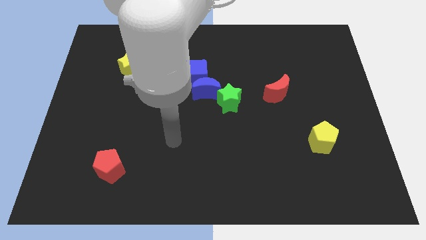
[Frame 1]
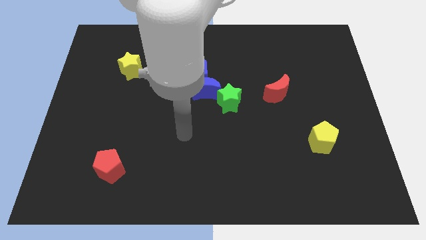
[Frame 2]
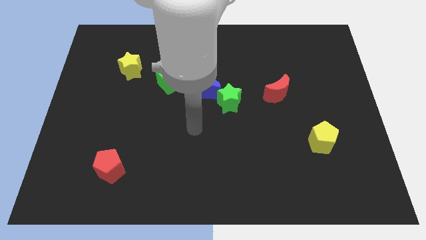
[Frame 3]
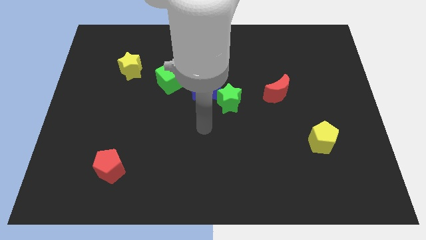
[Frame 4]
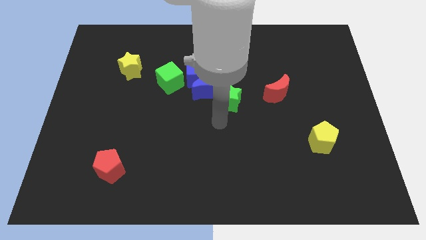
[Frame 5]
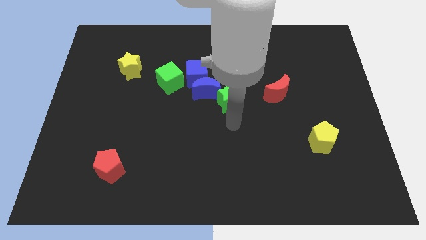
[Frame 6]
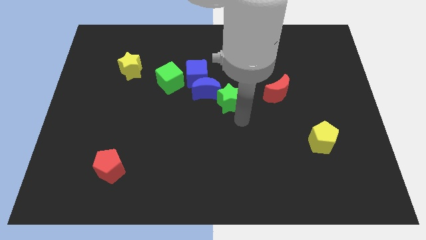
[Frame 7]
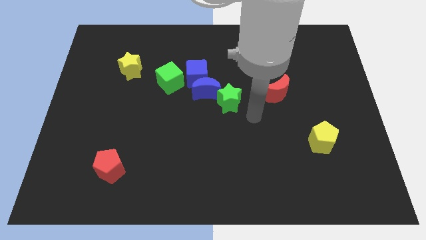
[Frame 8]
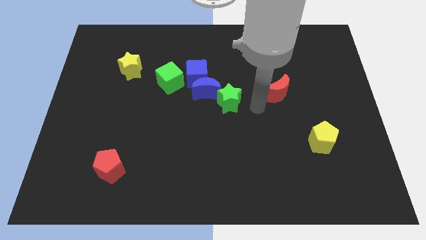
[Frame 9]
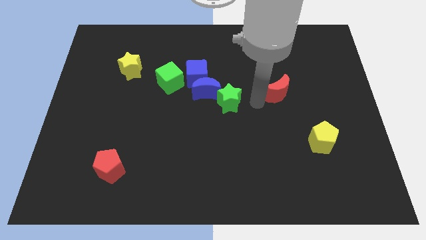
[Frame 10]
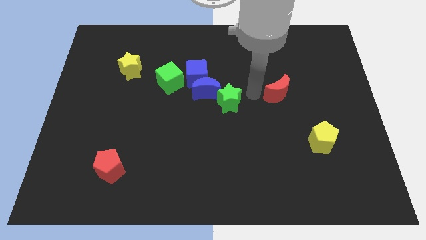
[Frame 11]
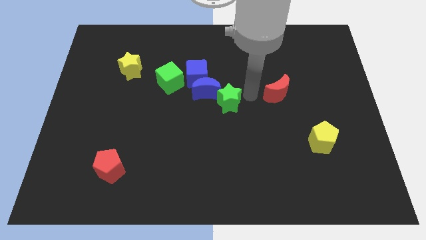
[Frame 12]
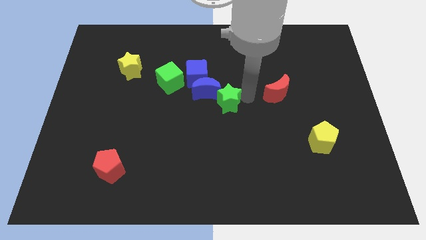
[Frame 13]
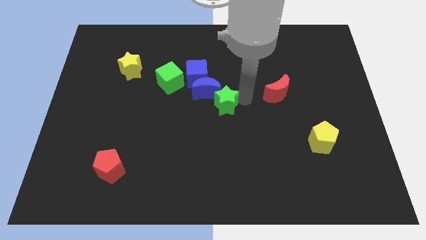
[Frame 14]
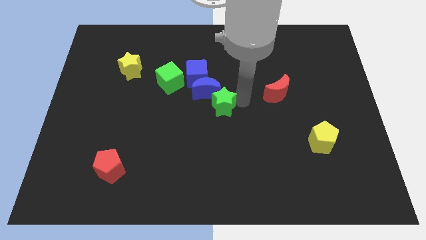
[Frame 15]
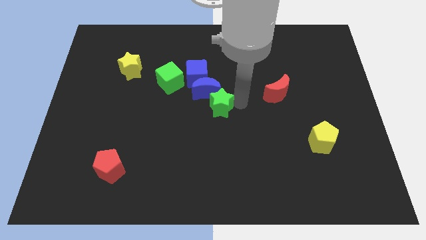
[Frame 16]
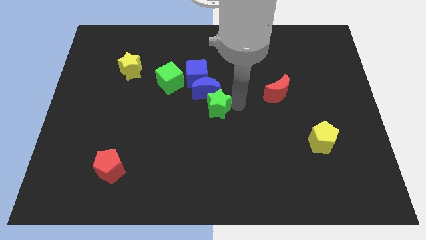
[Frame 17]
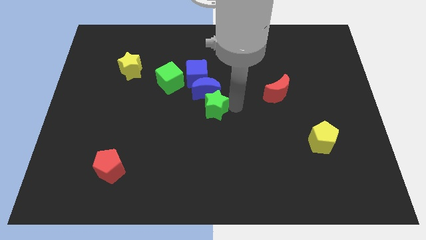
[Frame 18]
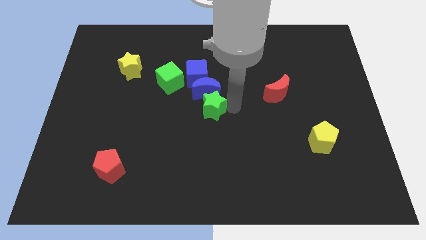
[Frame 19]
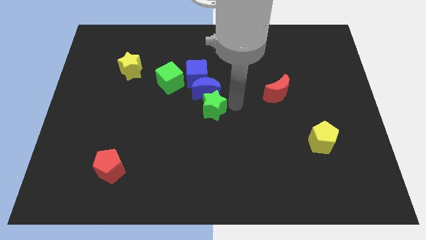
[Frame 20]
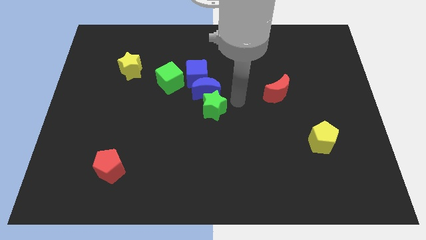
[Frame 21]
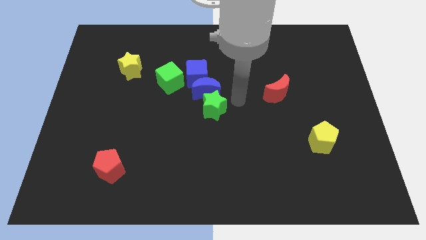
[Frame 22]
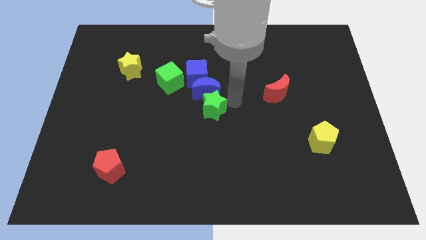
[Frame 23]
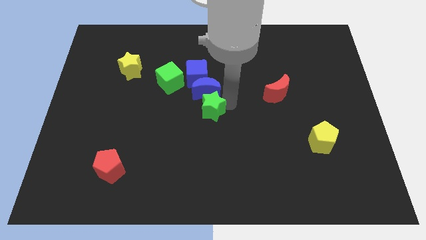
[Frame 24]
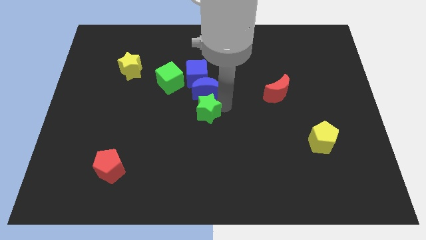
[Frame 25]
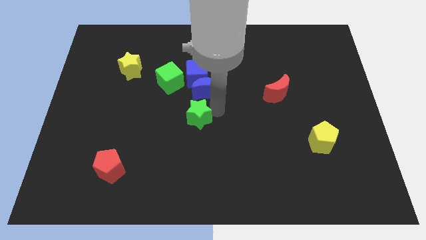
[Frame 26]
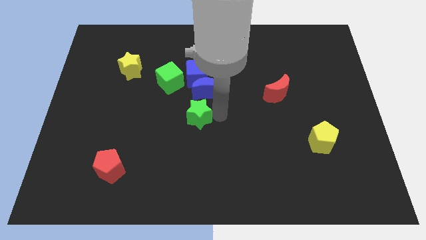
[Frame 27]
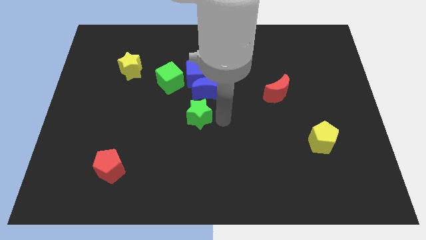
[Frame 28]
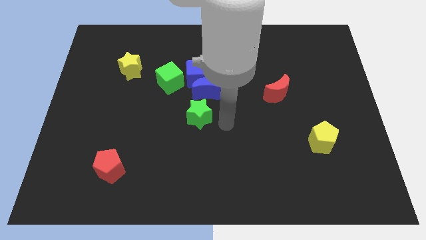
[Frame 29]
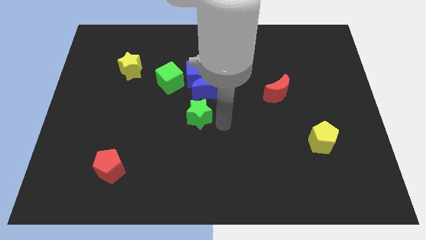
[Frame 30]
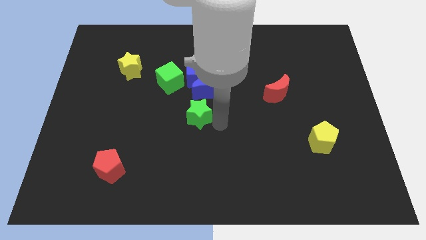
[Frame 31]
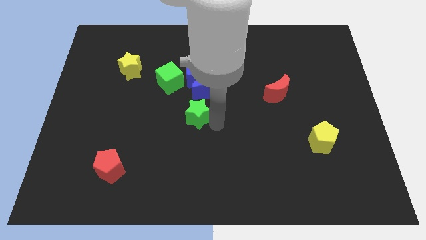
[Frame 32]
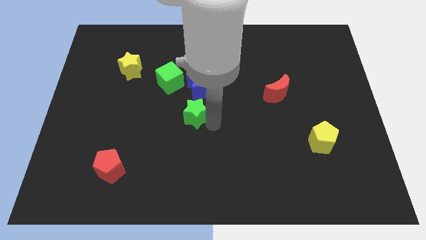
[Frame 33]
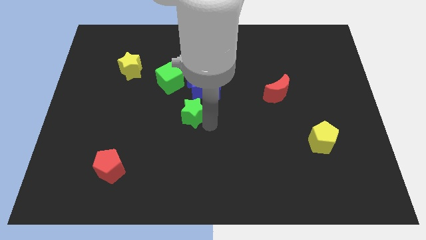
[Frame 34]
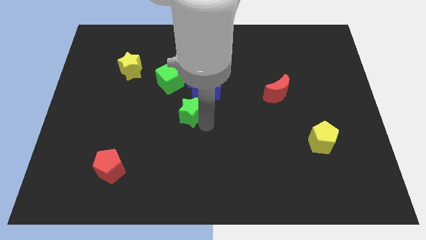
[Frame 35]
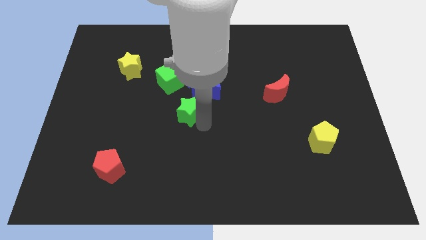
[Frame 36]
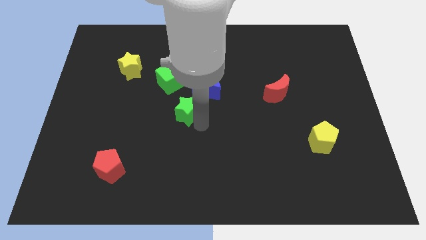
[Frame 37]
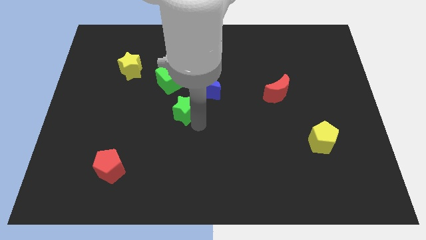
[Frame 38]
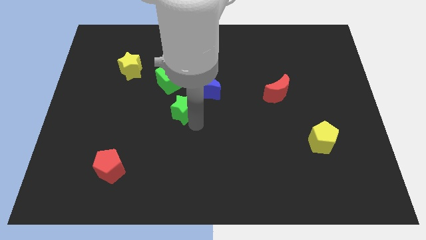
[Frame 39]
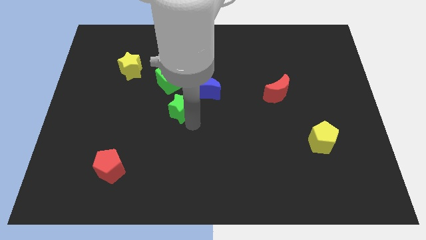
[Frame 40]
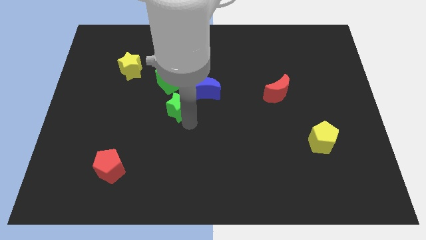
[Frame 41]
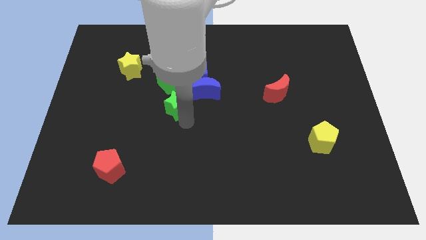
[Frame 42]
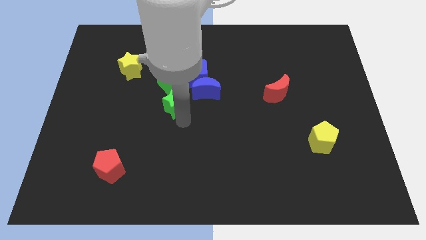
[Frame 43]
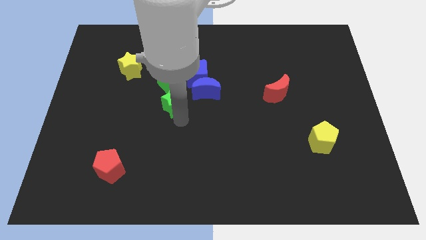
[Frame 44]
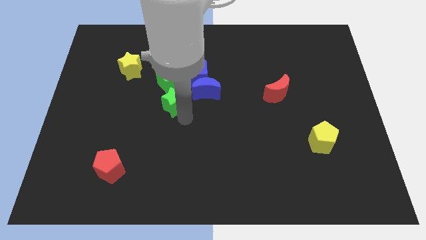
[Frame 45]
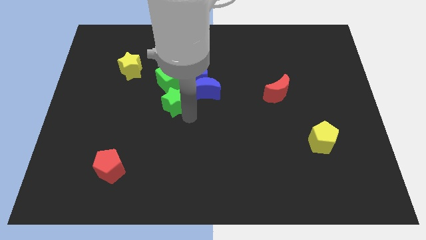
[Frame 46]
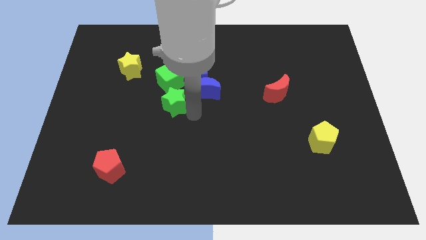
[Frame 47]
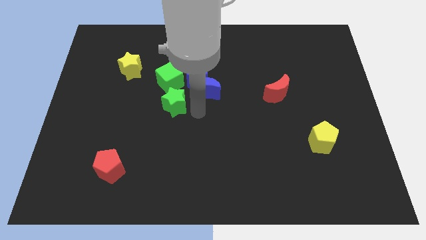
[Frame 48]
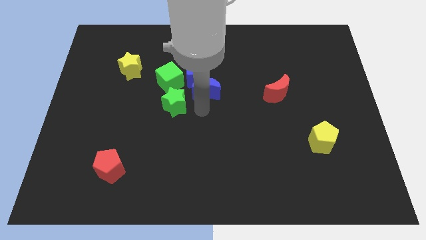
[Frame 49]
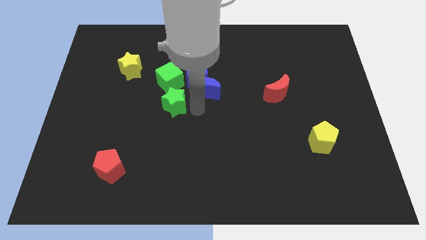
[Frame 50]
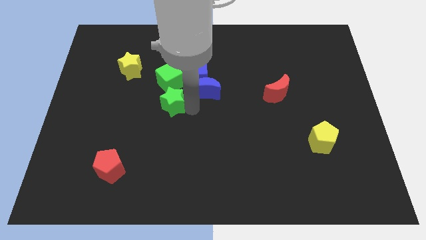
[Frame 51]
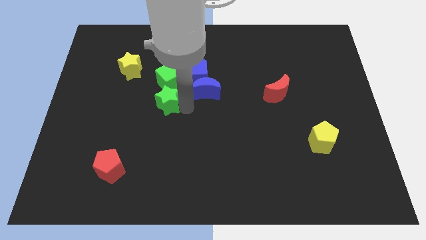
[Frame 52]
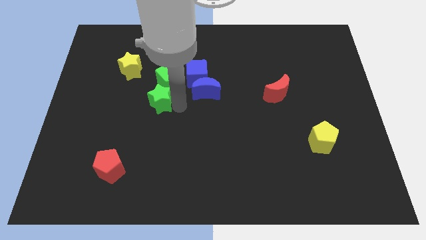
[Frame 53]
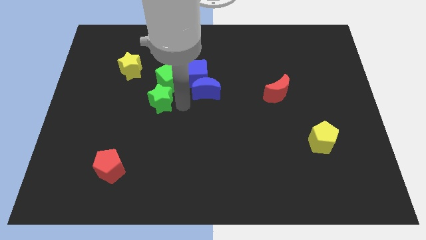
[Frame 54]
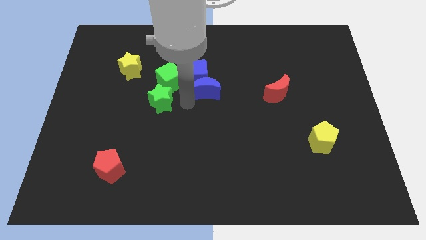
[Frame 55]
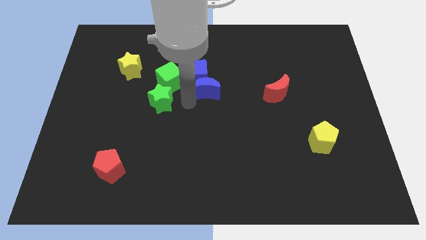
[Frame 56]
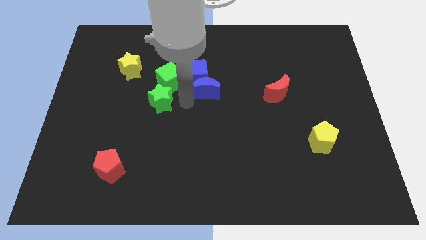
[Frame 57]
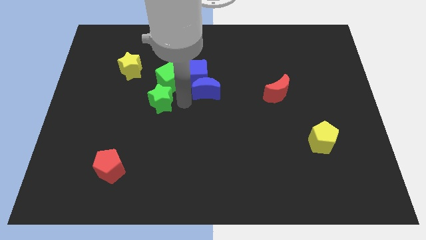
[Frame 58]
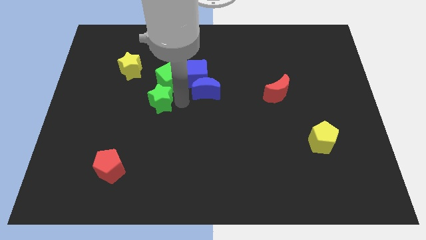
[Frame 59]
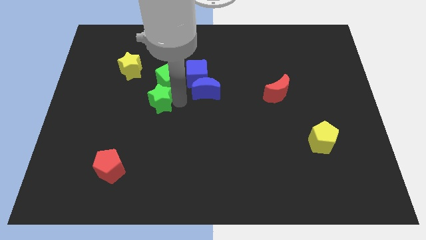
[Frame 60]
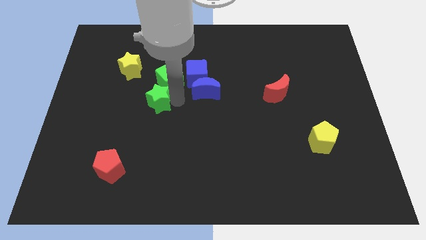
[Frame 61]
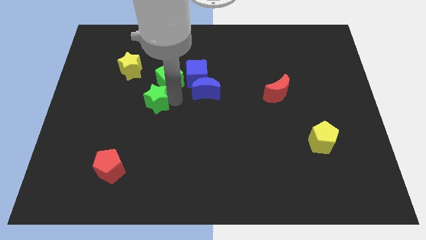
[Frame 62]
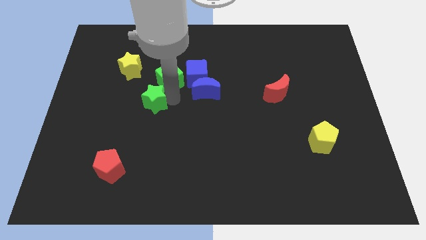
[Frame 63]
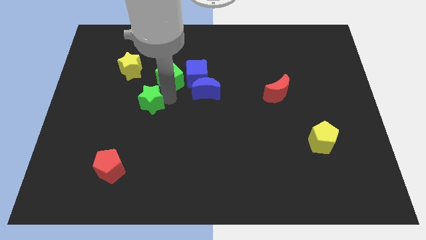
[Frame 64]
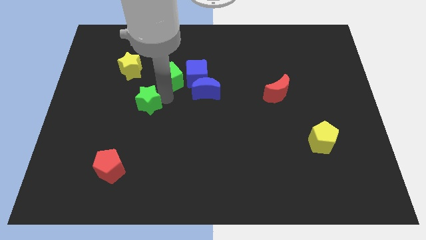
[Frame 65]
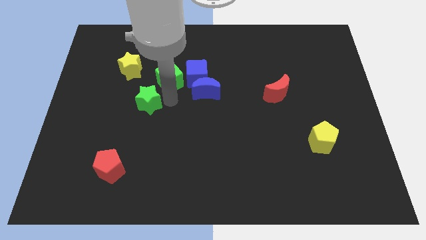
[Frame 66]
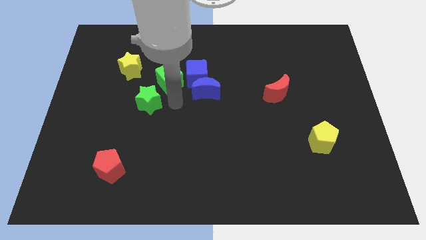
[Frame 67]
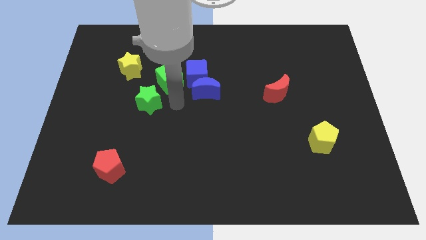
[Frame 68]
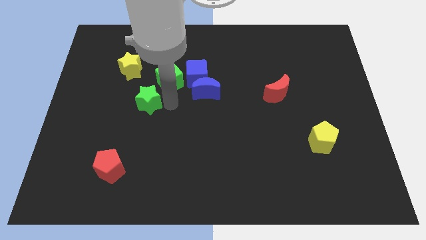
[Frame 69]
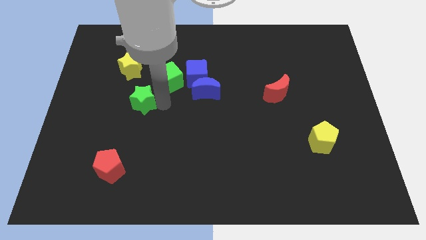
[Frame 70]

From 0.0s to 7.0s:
push the green star to the left

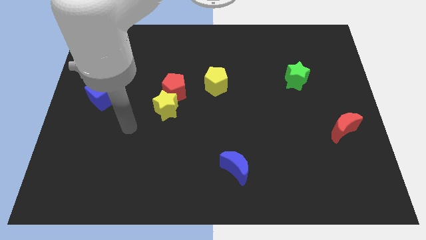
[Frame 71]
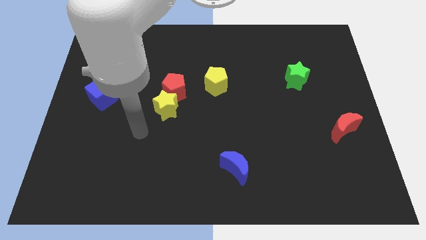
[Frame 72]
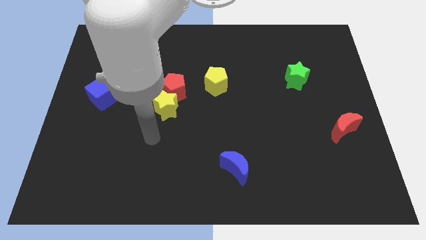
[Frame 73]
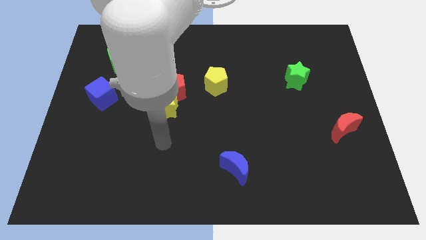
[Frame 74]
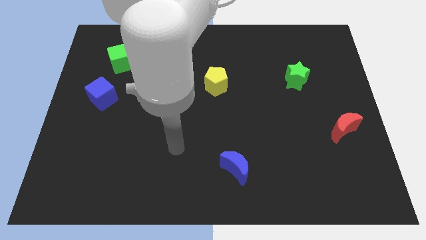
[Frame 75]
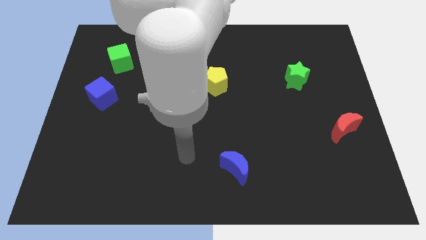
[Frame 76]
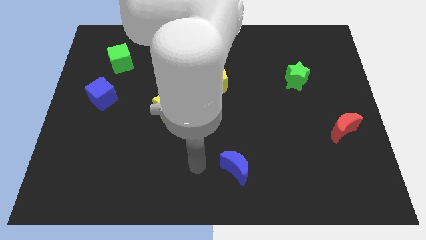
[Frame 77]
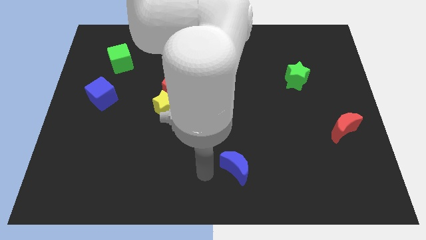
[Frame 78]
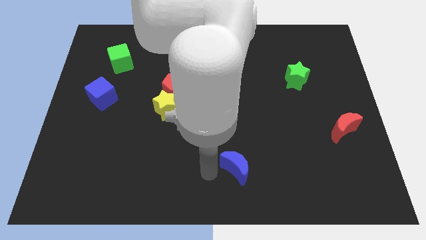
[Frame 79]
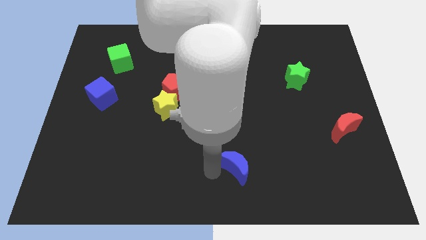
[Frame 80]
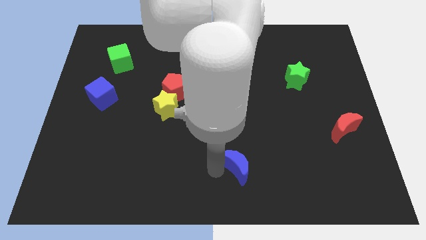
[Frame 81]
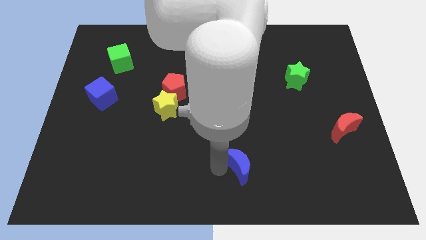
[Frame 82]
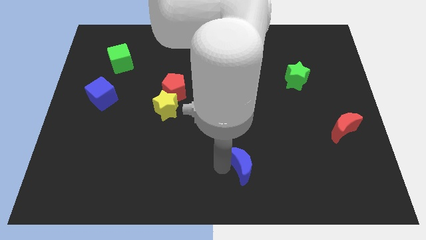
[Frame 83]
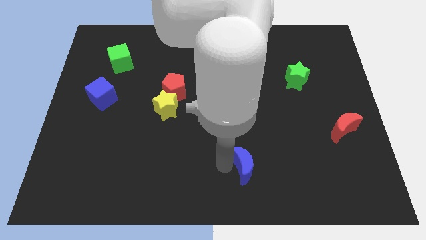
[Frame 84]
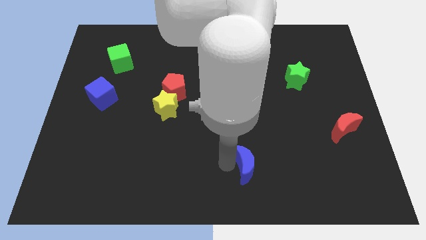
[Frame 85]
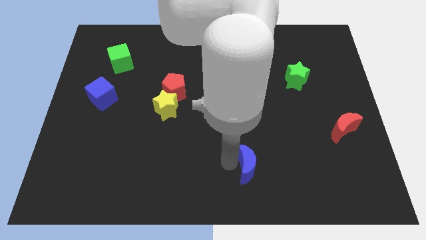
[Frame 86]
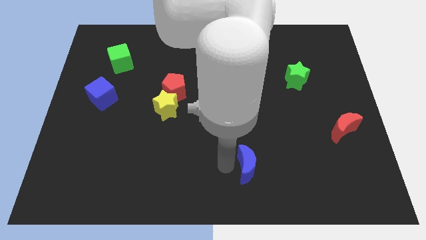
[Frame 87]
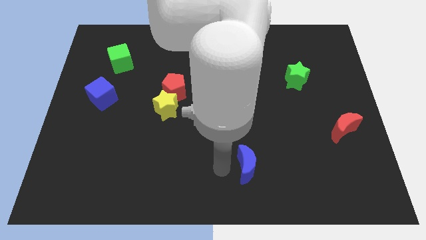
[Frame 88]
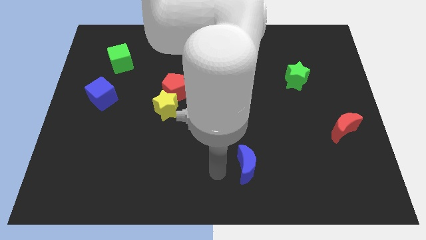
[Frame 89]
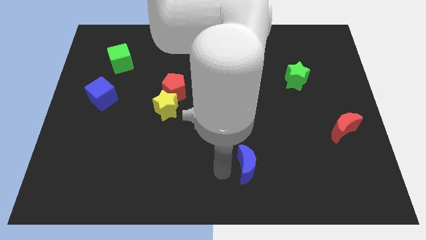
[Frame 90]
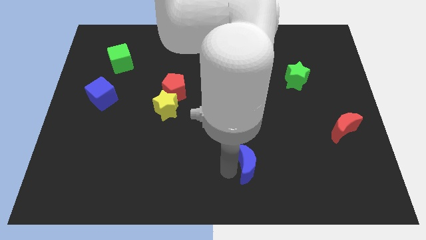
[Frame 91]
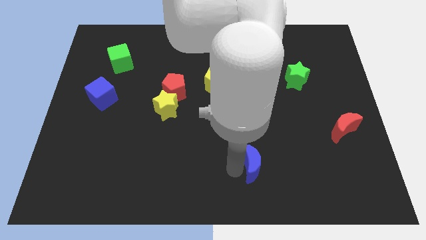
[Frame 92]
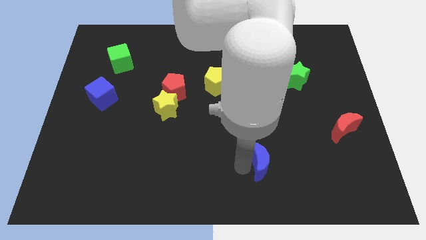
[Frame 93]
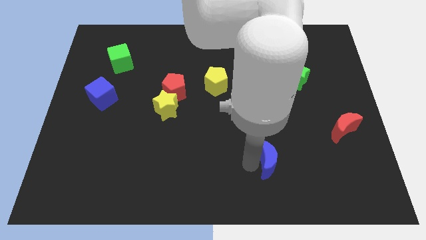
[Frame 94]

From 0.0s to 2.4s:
slide the blue moon a bit to the right
